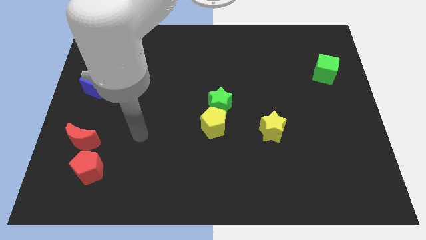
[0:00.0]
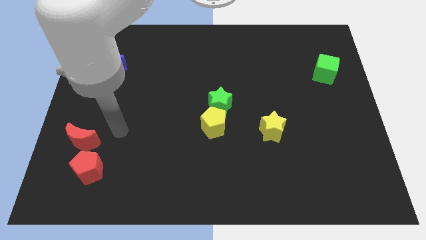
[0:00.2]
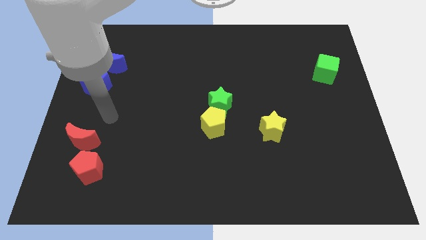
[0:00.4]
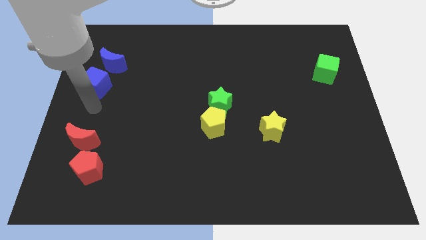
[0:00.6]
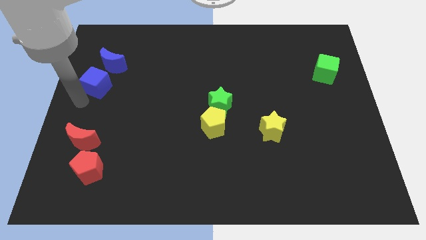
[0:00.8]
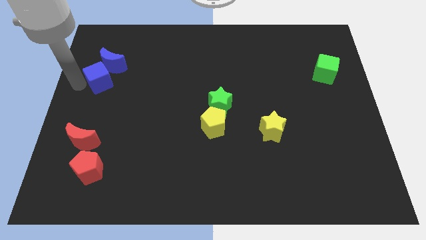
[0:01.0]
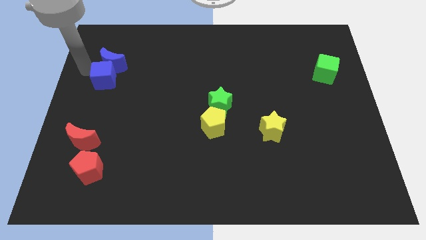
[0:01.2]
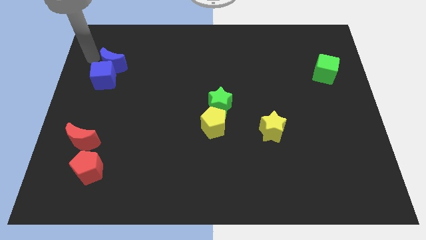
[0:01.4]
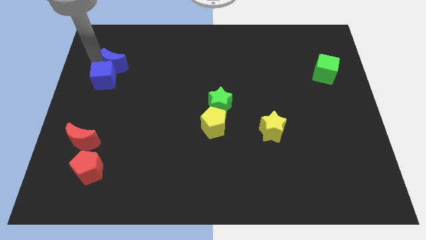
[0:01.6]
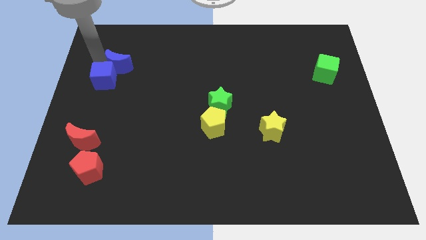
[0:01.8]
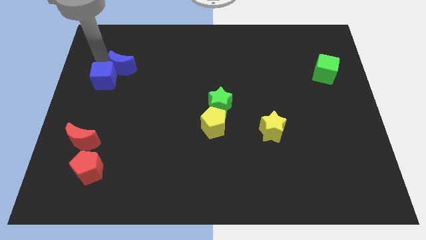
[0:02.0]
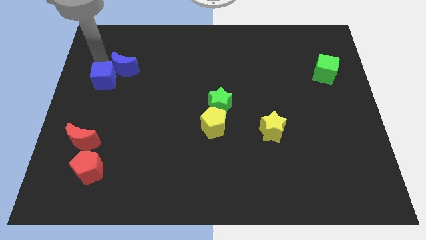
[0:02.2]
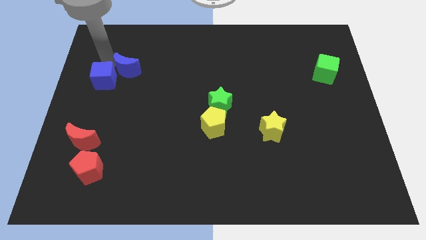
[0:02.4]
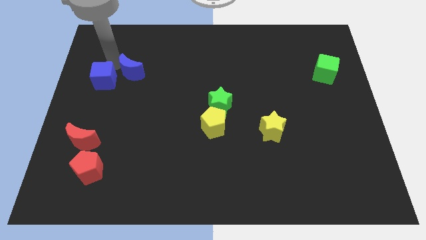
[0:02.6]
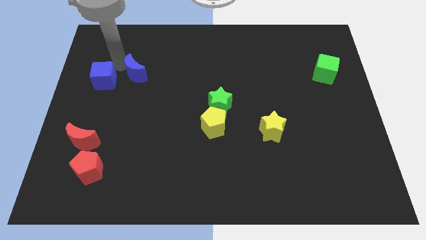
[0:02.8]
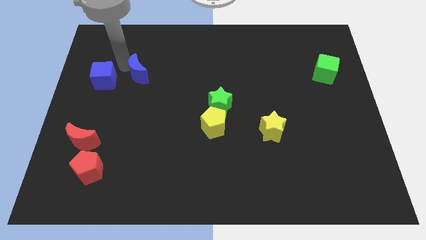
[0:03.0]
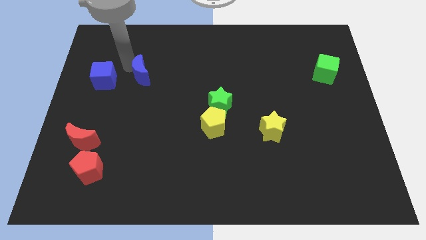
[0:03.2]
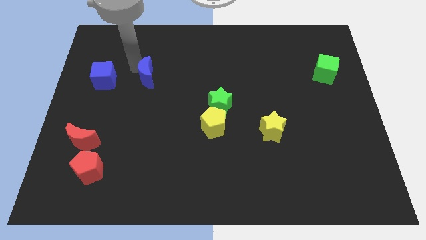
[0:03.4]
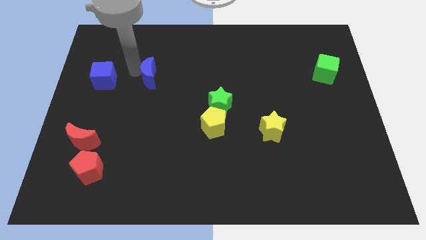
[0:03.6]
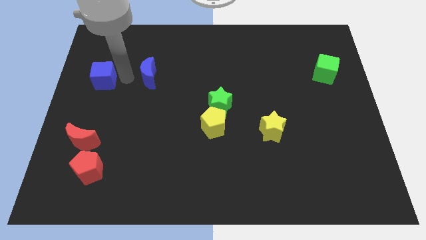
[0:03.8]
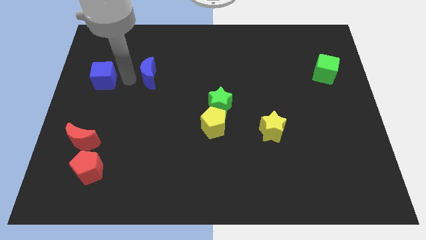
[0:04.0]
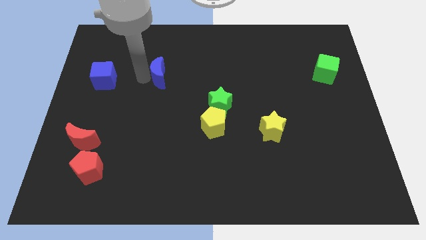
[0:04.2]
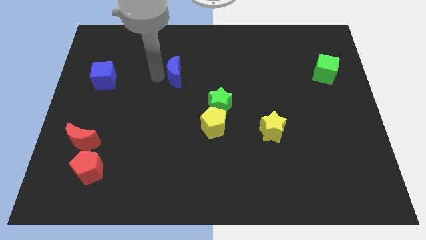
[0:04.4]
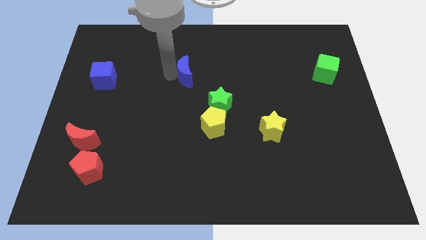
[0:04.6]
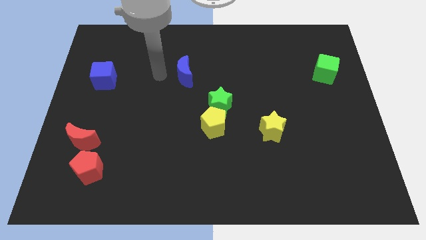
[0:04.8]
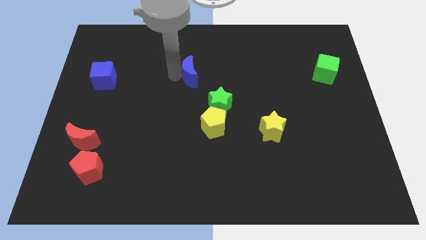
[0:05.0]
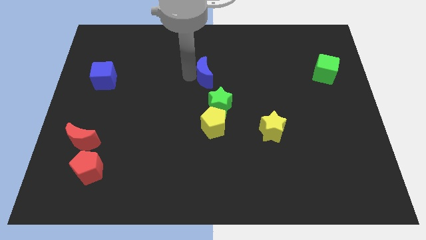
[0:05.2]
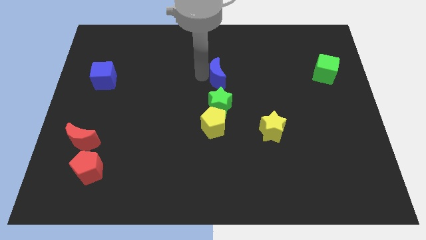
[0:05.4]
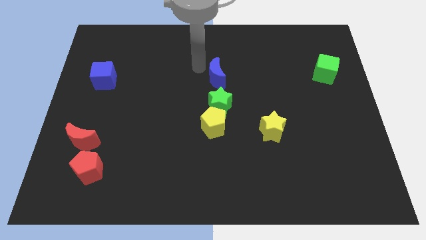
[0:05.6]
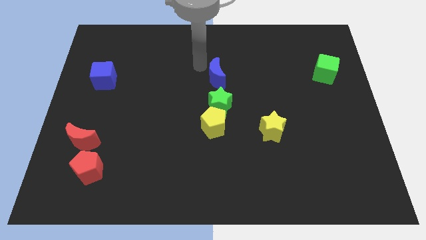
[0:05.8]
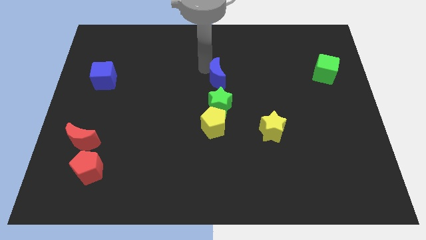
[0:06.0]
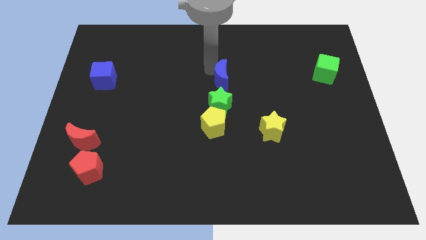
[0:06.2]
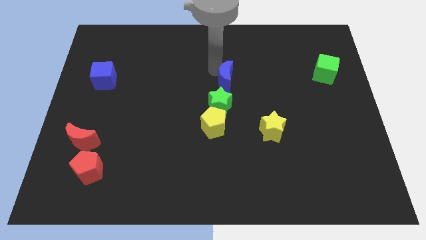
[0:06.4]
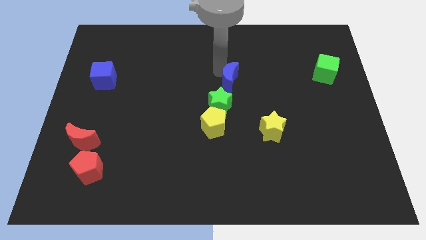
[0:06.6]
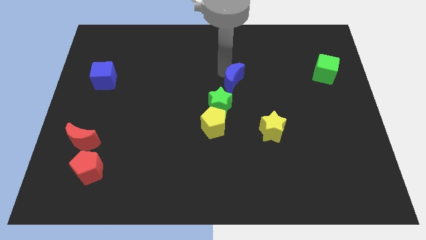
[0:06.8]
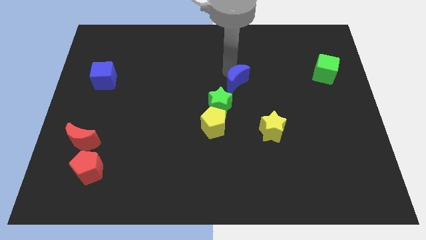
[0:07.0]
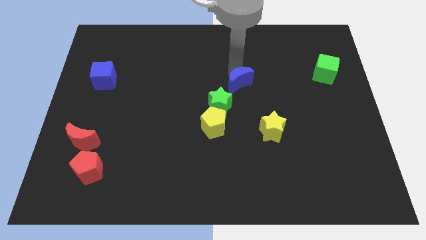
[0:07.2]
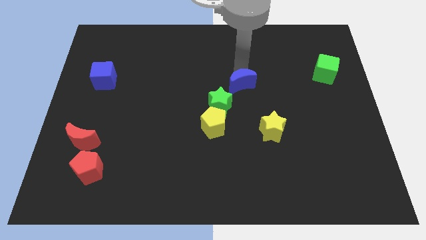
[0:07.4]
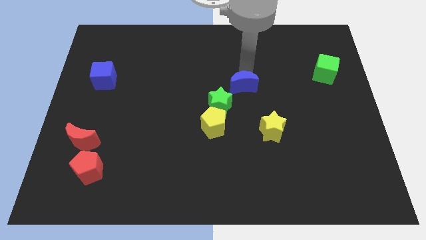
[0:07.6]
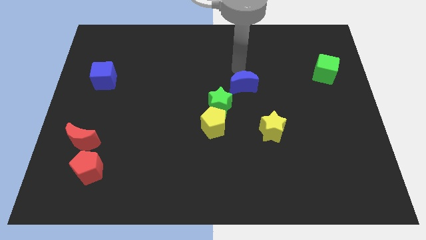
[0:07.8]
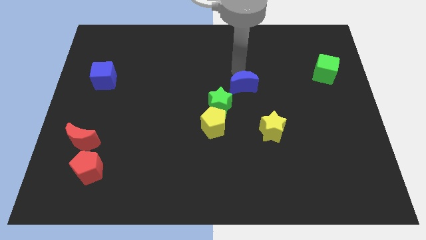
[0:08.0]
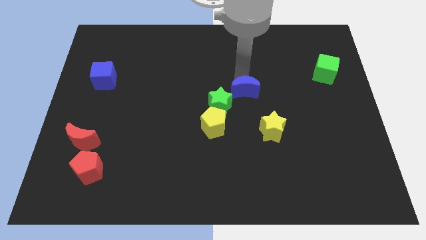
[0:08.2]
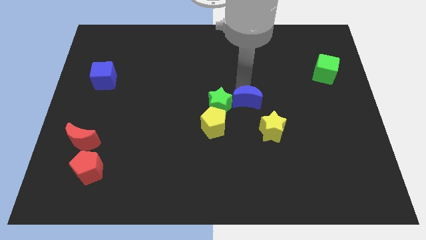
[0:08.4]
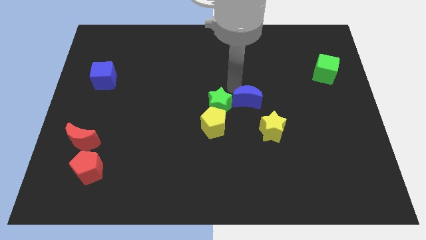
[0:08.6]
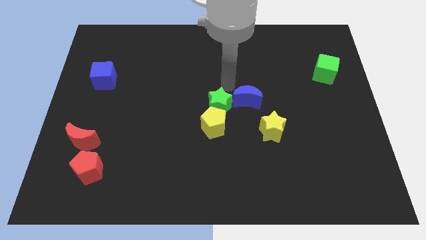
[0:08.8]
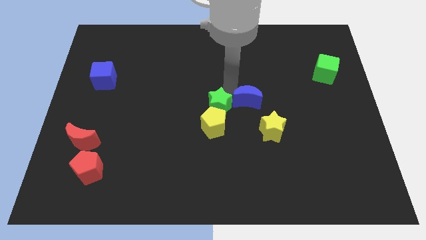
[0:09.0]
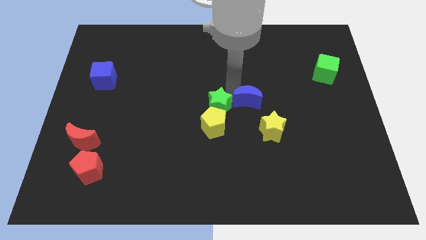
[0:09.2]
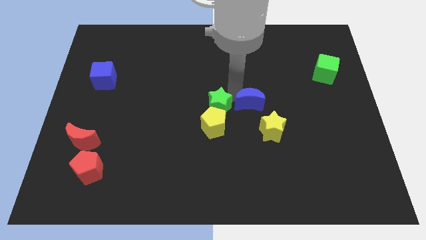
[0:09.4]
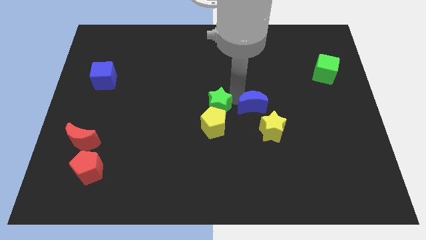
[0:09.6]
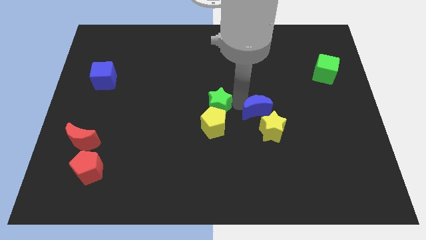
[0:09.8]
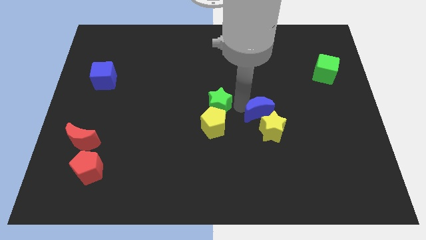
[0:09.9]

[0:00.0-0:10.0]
put the blue moon towards the yellow star

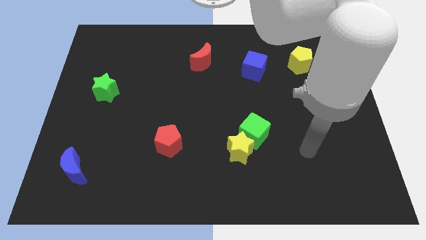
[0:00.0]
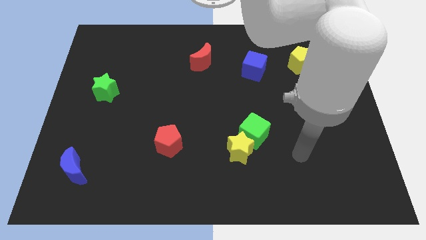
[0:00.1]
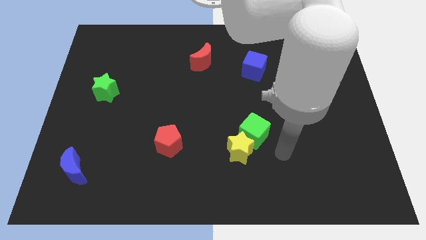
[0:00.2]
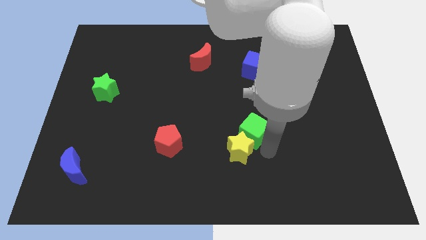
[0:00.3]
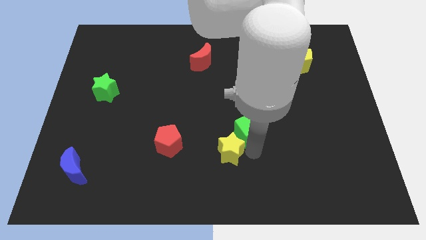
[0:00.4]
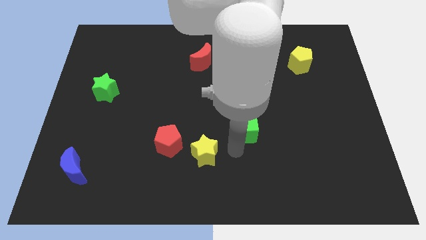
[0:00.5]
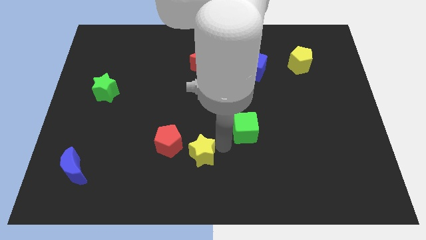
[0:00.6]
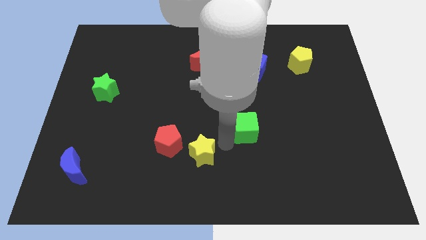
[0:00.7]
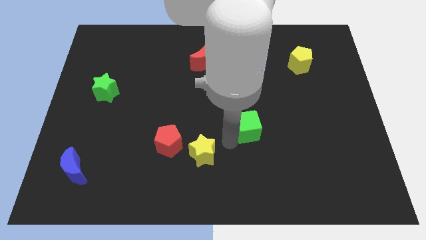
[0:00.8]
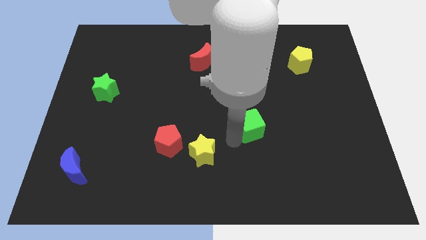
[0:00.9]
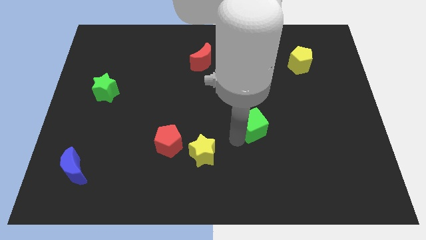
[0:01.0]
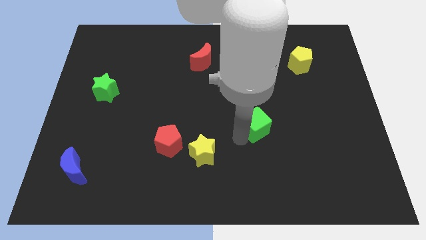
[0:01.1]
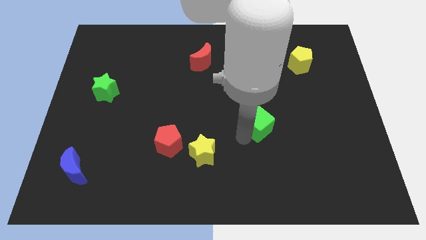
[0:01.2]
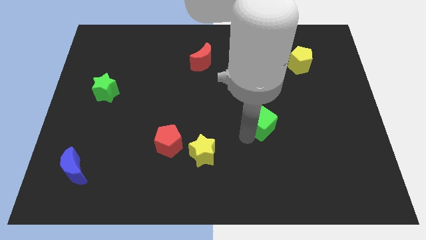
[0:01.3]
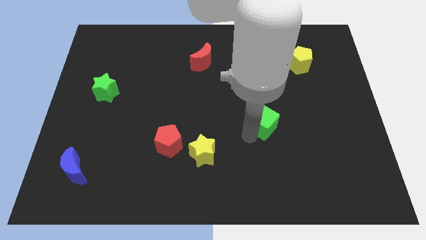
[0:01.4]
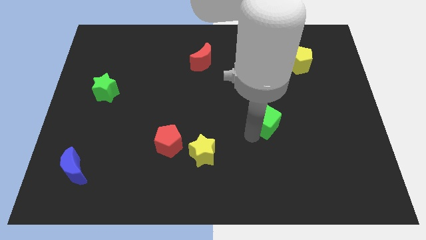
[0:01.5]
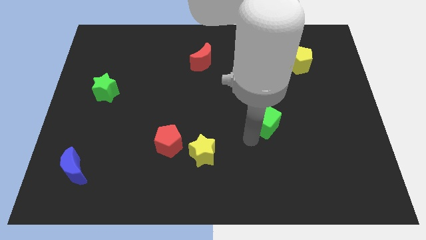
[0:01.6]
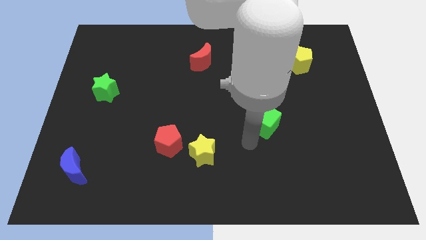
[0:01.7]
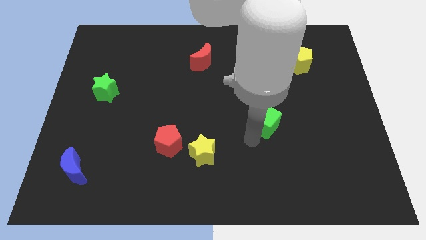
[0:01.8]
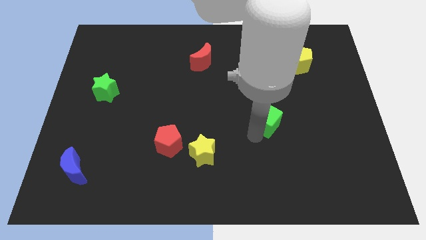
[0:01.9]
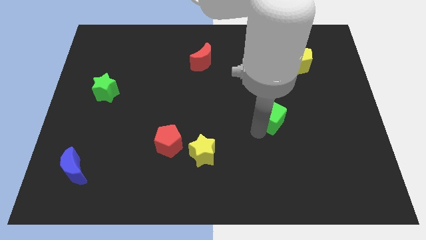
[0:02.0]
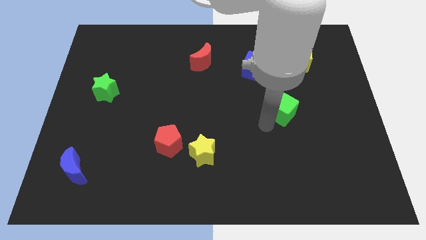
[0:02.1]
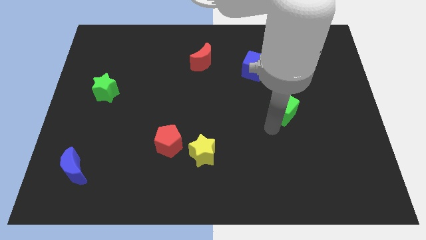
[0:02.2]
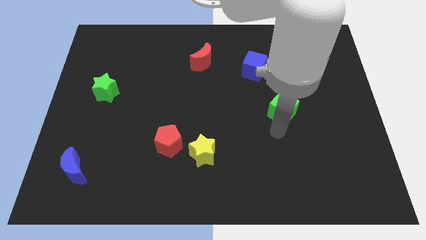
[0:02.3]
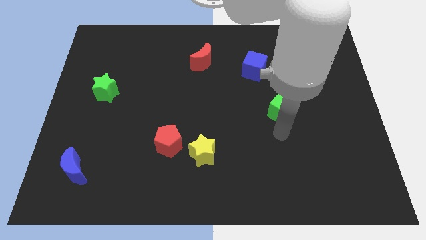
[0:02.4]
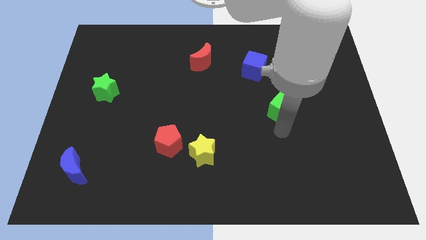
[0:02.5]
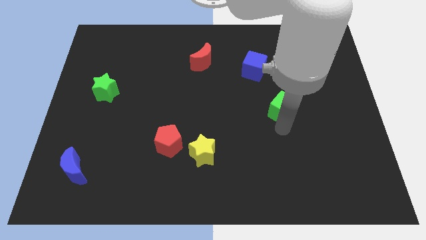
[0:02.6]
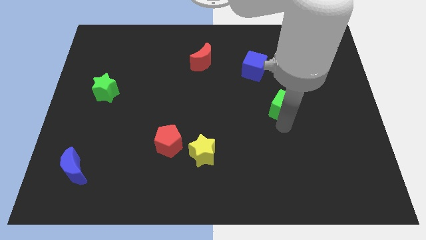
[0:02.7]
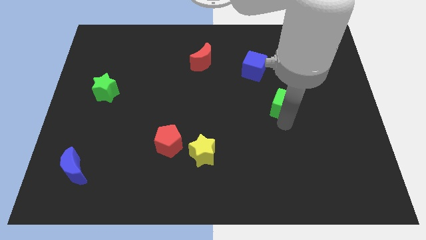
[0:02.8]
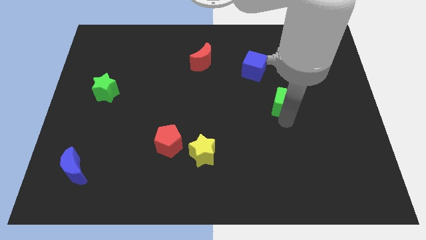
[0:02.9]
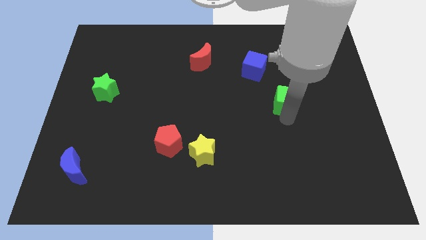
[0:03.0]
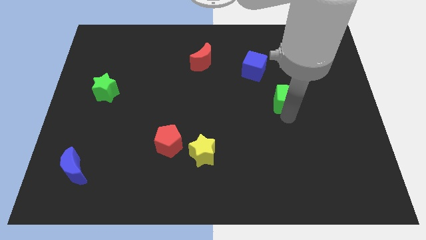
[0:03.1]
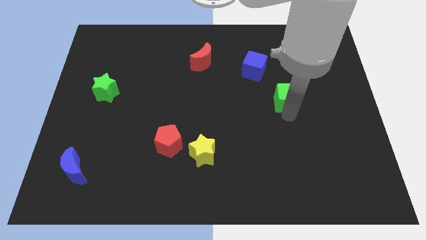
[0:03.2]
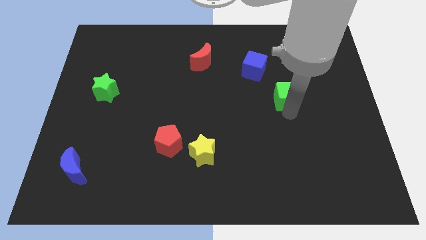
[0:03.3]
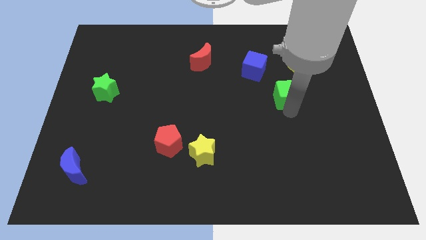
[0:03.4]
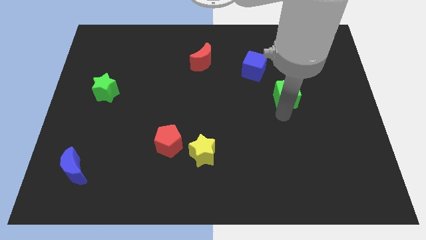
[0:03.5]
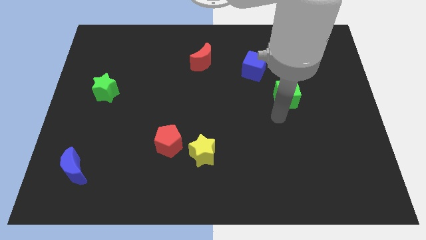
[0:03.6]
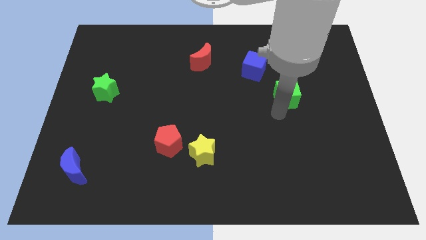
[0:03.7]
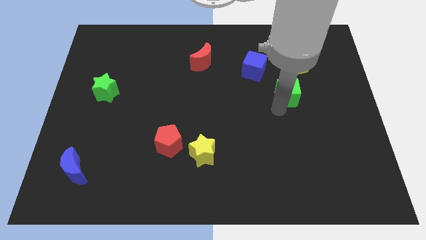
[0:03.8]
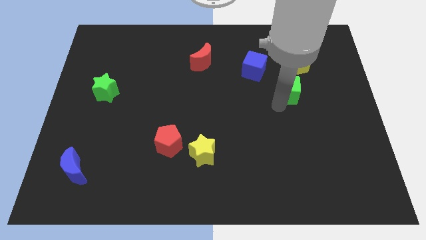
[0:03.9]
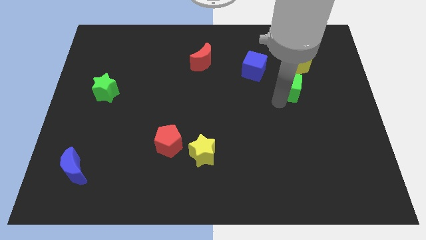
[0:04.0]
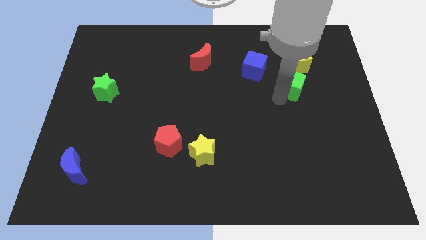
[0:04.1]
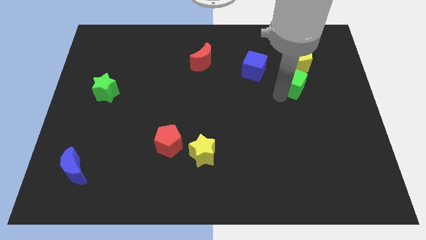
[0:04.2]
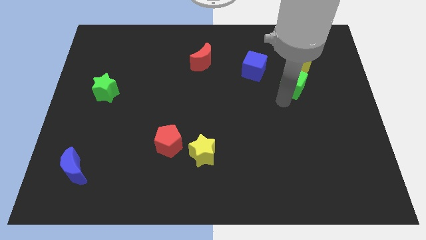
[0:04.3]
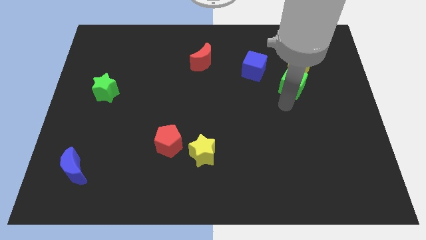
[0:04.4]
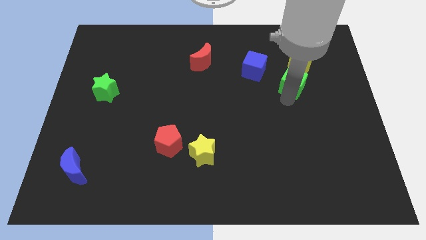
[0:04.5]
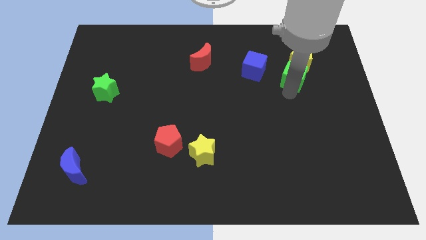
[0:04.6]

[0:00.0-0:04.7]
push the green cube next to the yellow pentagon
